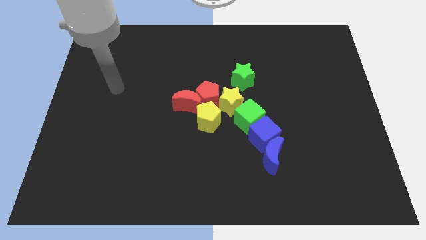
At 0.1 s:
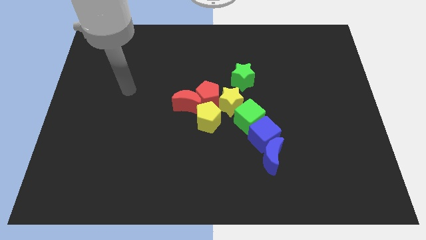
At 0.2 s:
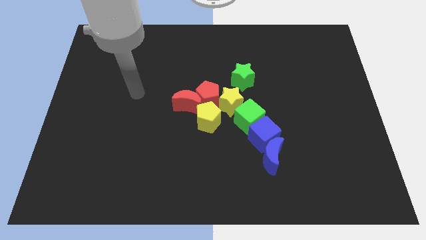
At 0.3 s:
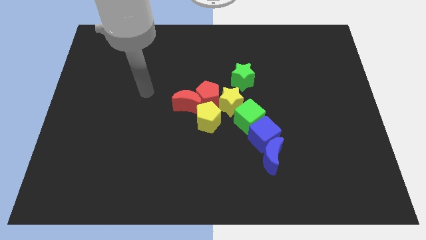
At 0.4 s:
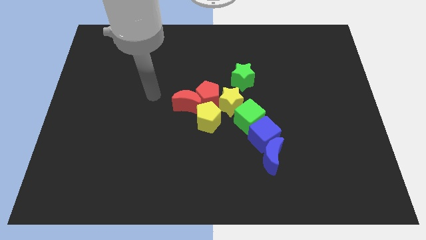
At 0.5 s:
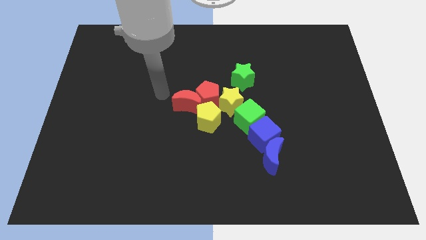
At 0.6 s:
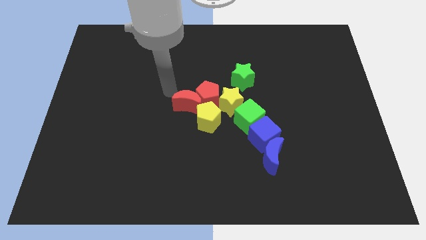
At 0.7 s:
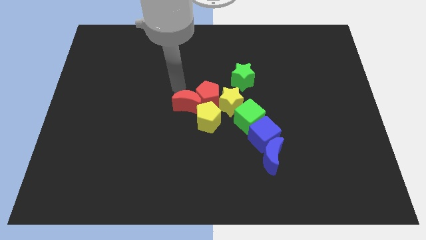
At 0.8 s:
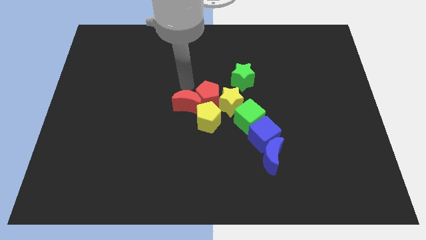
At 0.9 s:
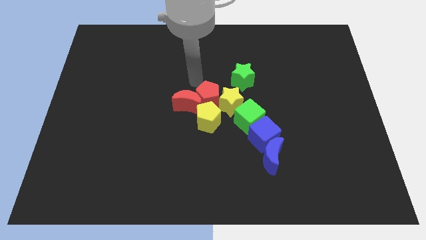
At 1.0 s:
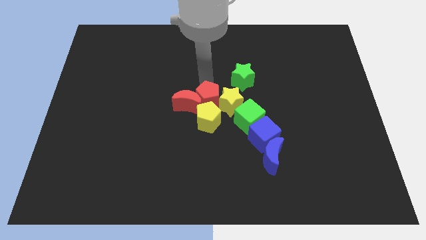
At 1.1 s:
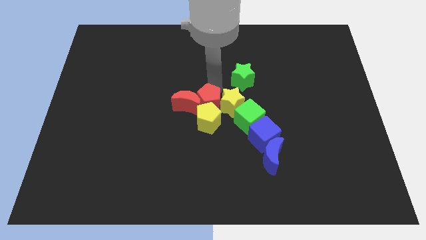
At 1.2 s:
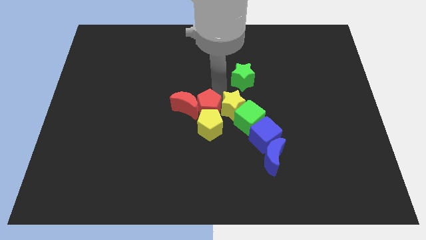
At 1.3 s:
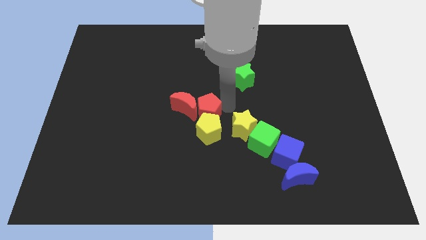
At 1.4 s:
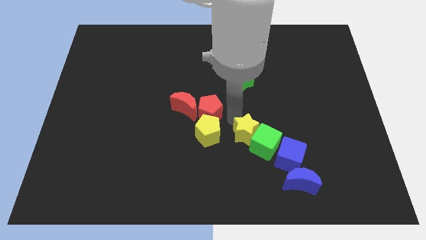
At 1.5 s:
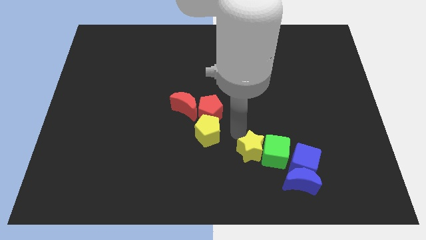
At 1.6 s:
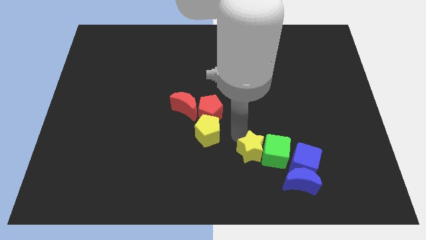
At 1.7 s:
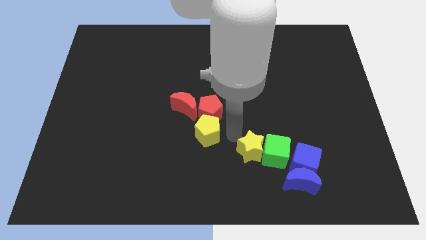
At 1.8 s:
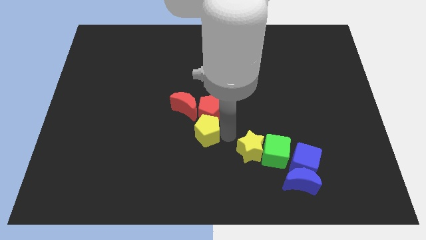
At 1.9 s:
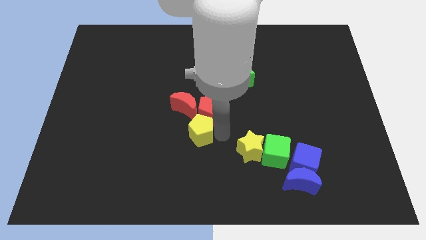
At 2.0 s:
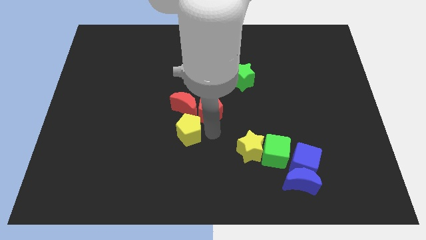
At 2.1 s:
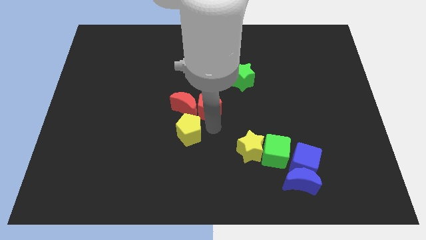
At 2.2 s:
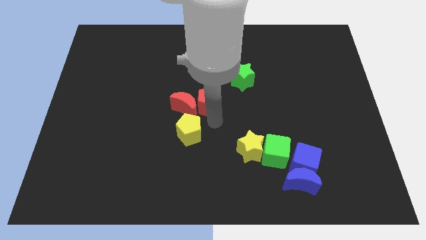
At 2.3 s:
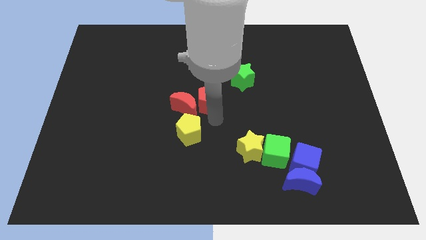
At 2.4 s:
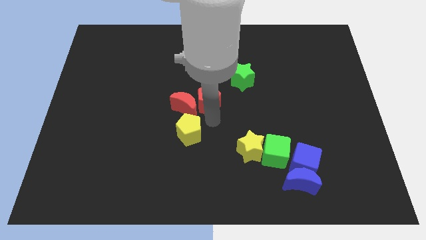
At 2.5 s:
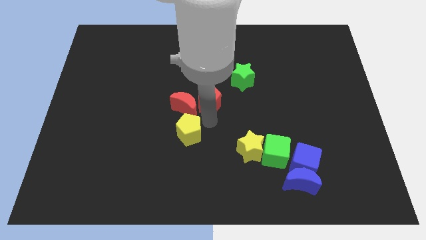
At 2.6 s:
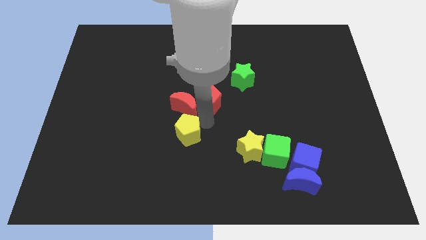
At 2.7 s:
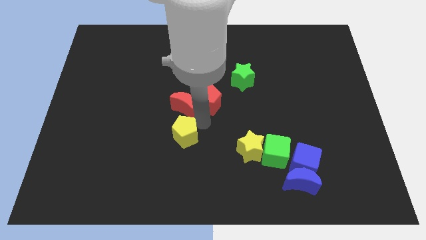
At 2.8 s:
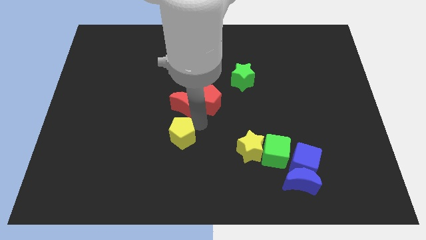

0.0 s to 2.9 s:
move the yellow pentagon downwards and left a bit

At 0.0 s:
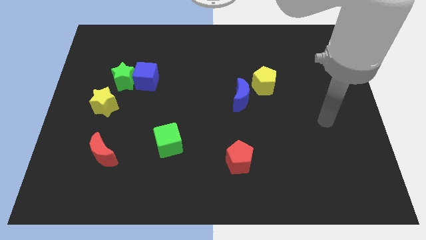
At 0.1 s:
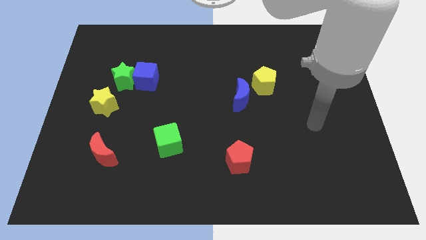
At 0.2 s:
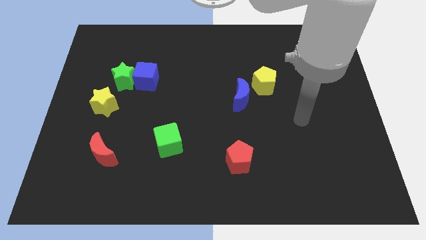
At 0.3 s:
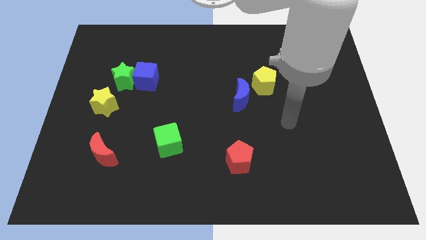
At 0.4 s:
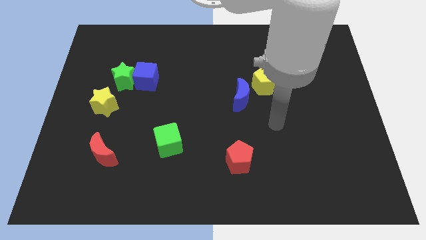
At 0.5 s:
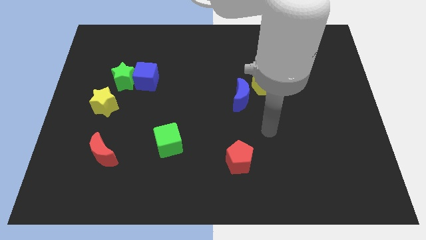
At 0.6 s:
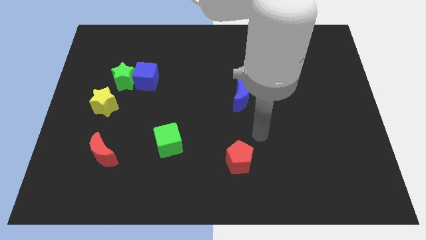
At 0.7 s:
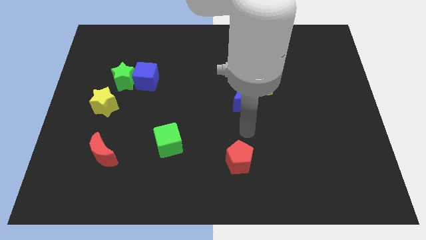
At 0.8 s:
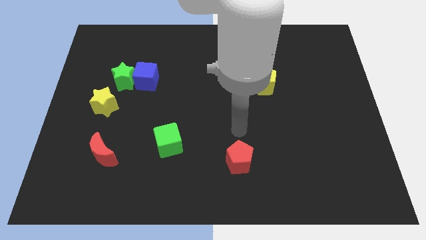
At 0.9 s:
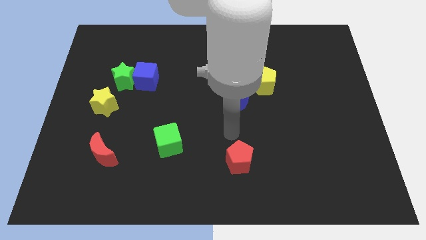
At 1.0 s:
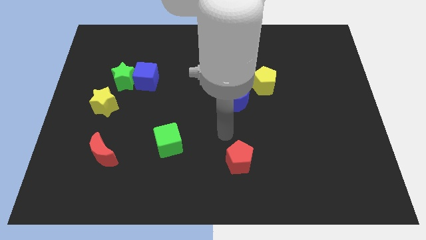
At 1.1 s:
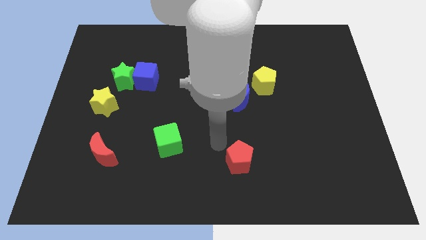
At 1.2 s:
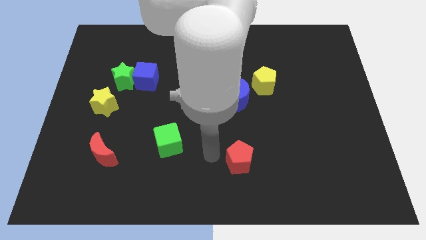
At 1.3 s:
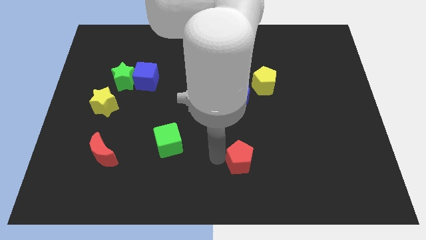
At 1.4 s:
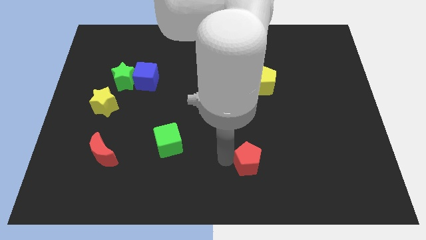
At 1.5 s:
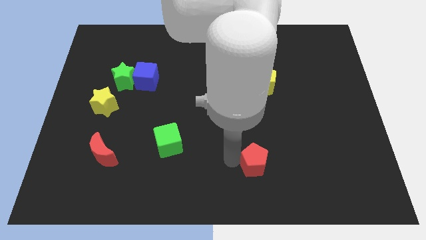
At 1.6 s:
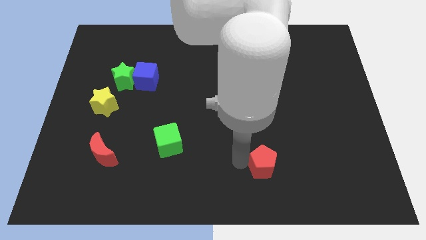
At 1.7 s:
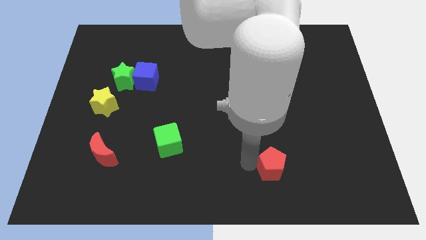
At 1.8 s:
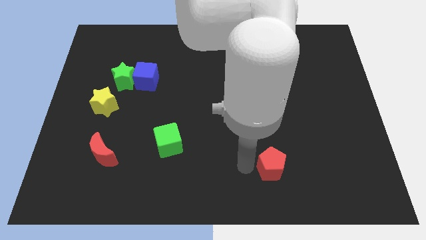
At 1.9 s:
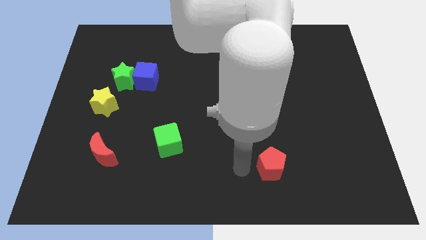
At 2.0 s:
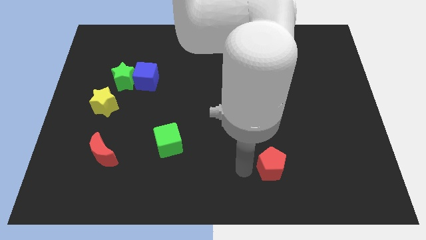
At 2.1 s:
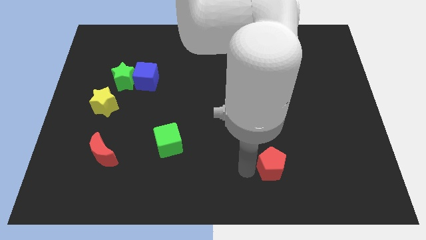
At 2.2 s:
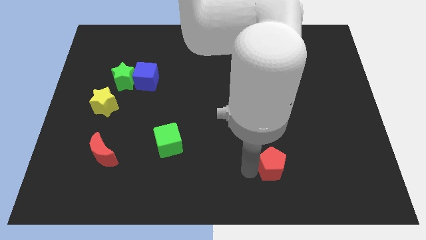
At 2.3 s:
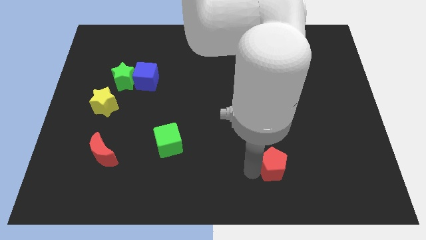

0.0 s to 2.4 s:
push the red pentagon to the right a little bit

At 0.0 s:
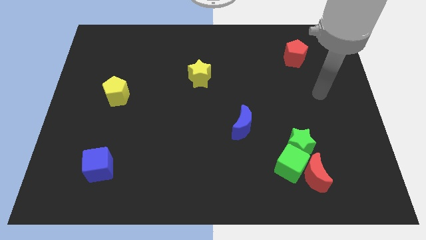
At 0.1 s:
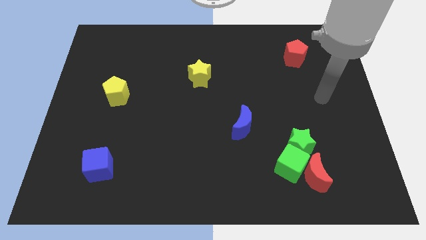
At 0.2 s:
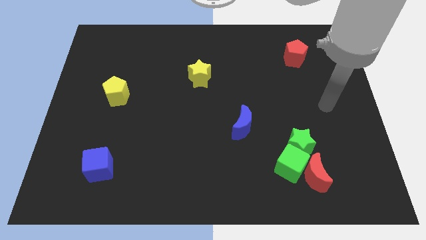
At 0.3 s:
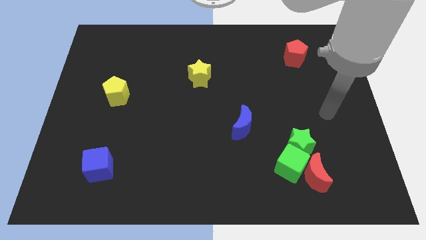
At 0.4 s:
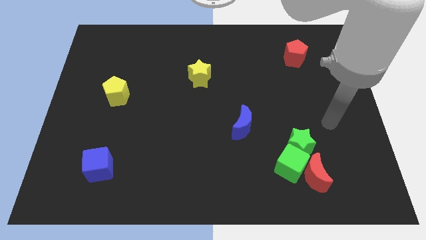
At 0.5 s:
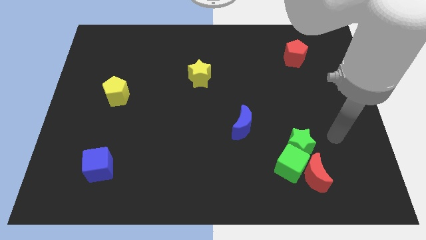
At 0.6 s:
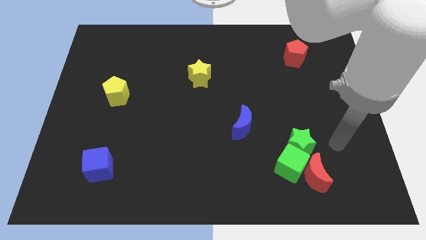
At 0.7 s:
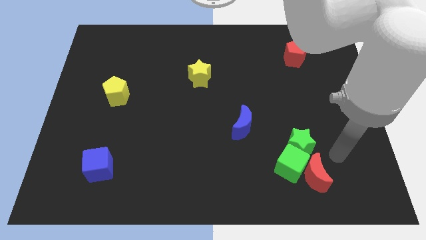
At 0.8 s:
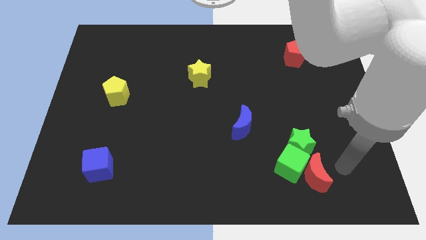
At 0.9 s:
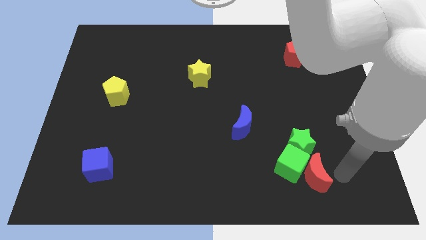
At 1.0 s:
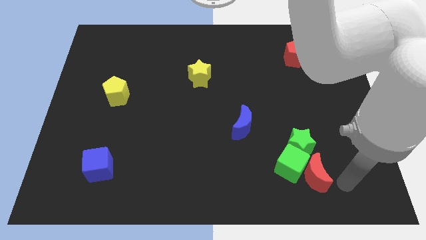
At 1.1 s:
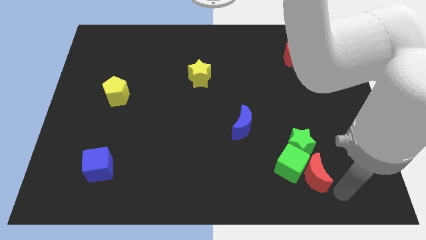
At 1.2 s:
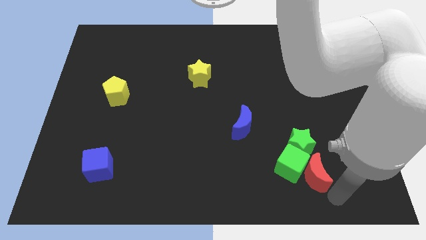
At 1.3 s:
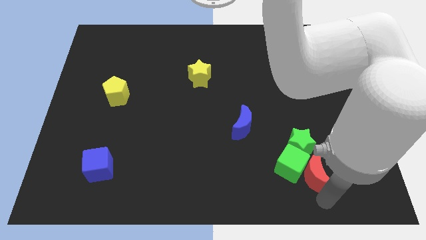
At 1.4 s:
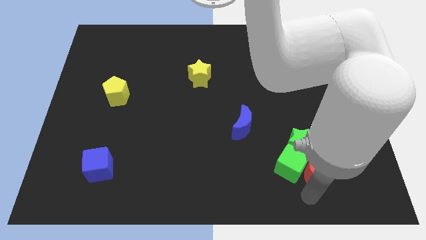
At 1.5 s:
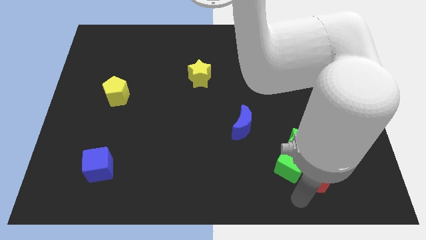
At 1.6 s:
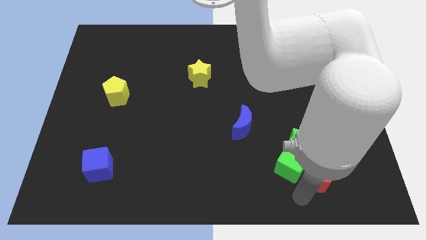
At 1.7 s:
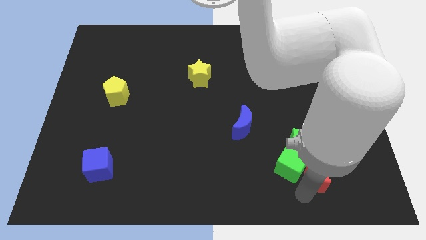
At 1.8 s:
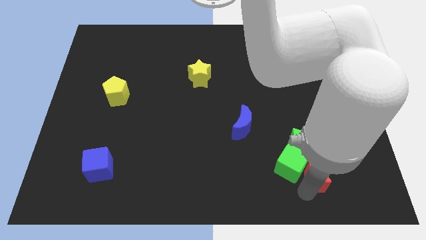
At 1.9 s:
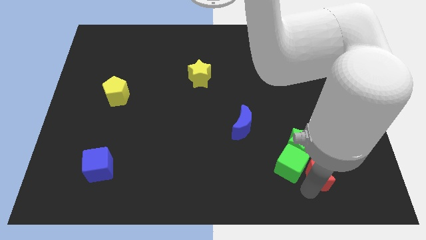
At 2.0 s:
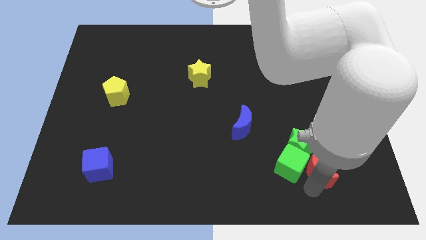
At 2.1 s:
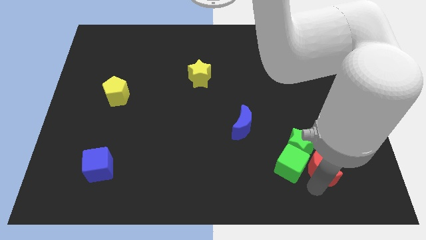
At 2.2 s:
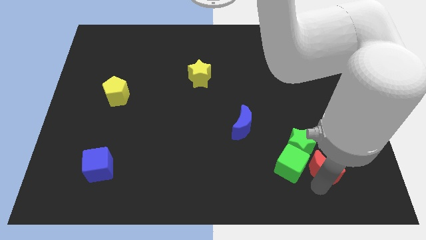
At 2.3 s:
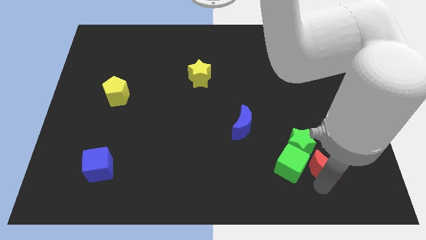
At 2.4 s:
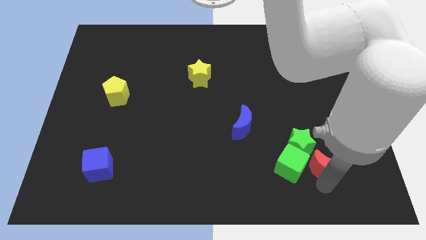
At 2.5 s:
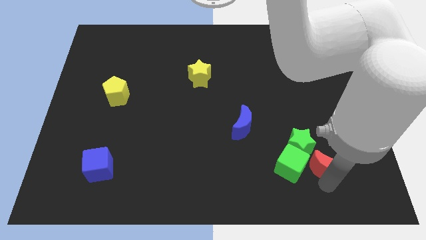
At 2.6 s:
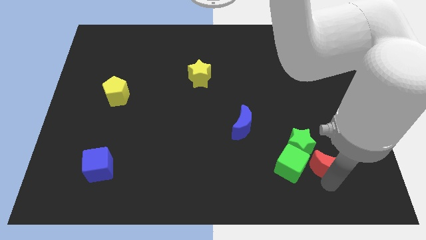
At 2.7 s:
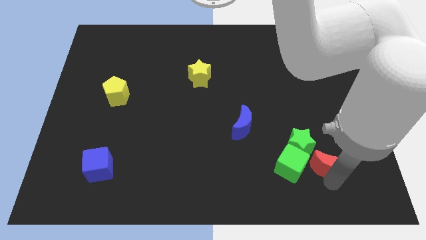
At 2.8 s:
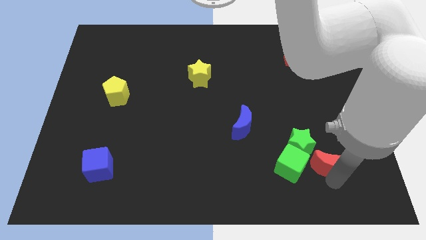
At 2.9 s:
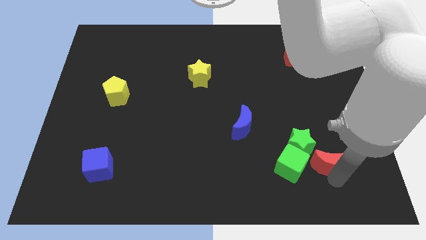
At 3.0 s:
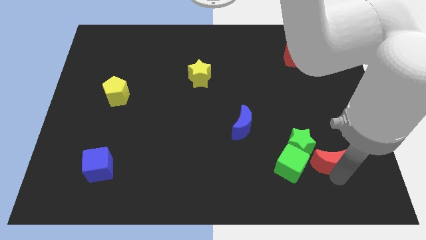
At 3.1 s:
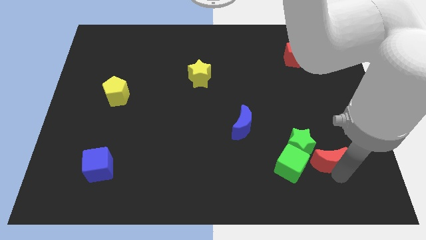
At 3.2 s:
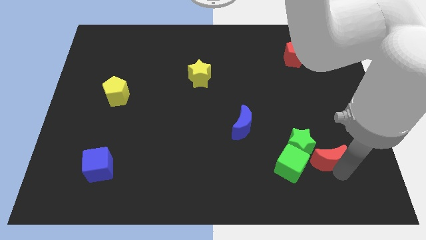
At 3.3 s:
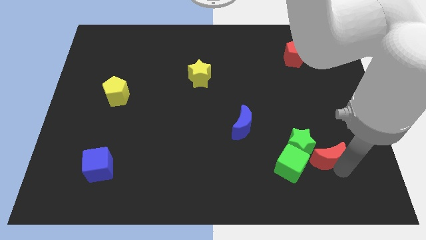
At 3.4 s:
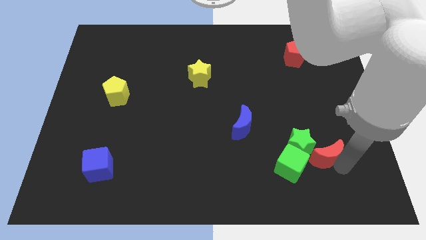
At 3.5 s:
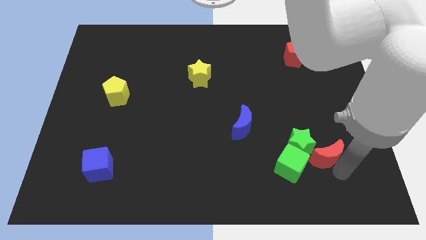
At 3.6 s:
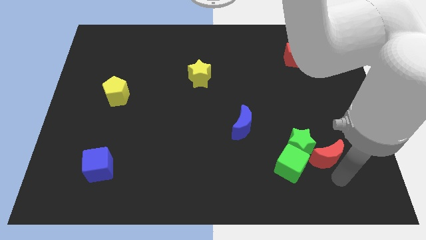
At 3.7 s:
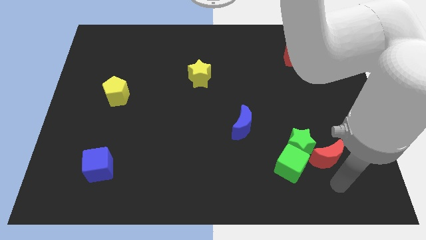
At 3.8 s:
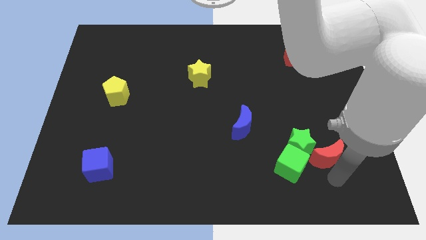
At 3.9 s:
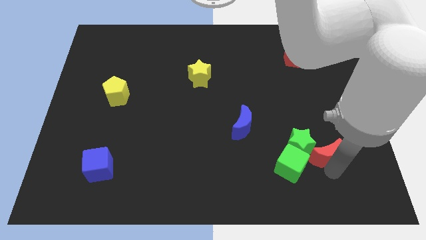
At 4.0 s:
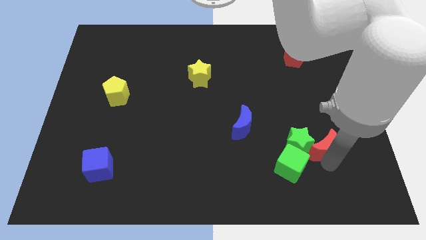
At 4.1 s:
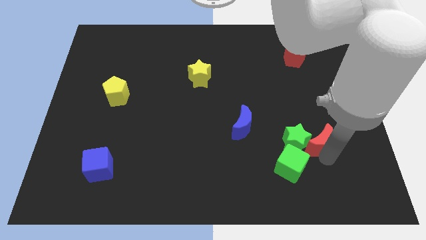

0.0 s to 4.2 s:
move the red moon upwards a little bit
